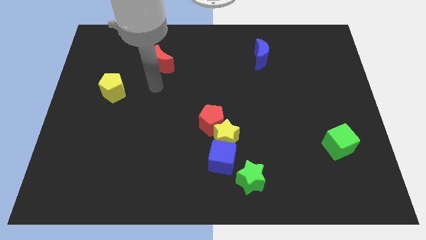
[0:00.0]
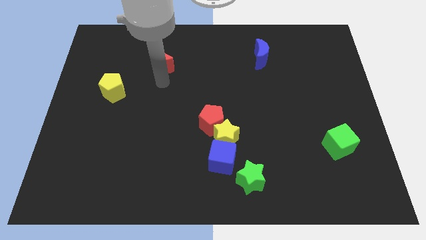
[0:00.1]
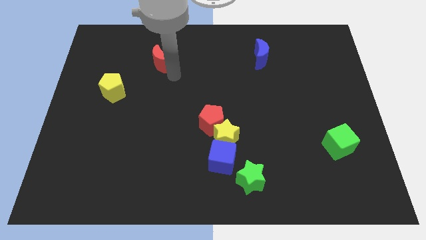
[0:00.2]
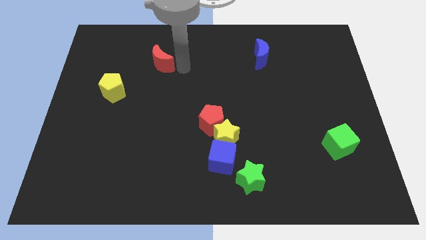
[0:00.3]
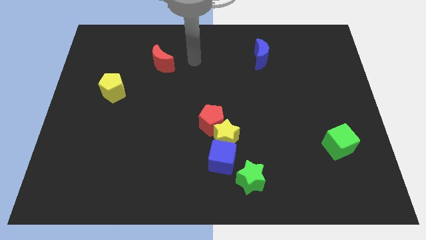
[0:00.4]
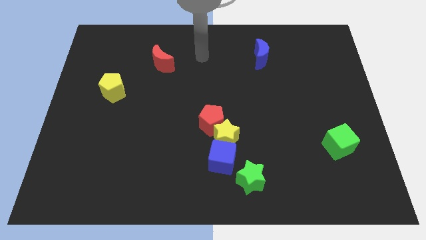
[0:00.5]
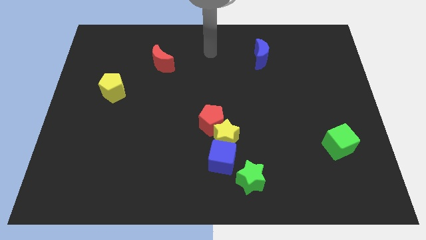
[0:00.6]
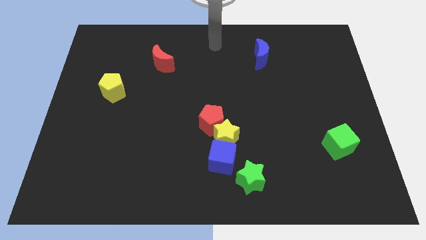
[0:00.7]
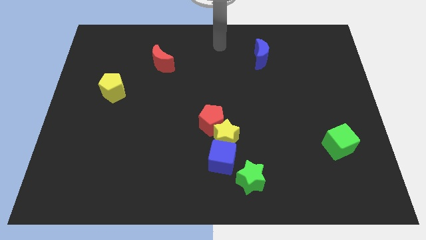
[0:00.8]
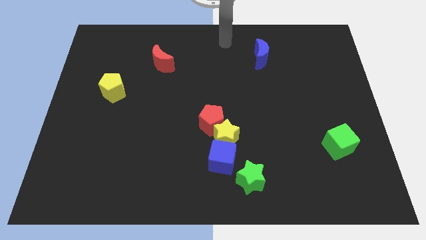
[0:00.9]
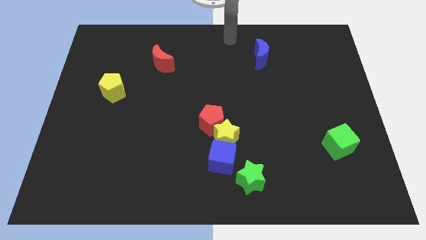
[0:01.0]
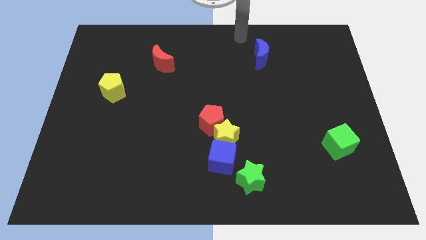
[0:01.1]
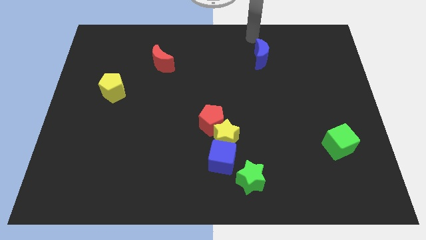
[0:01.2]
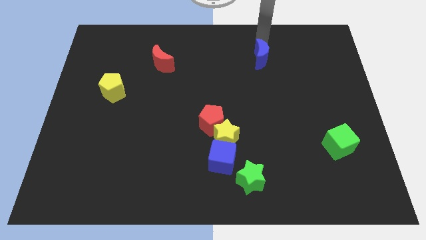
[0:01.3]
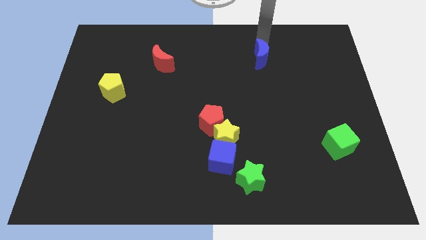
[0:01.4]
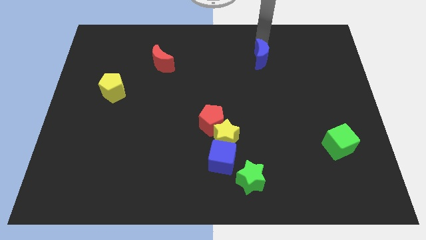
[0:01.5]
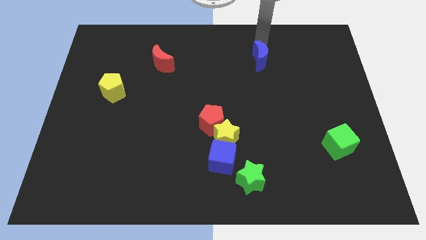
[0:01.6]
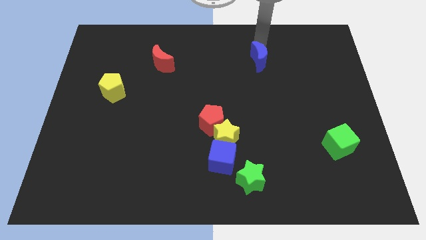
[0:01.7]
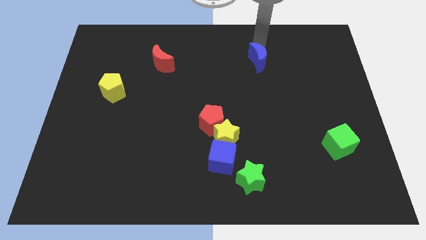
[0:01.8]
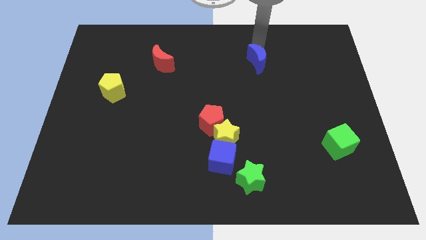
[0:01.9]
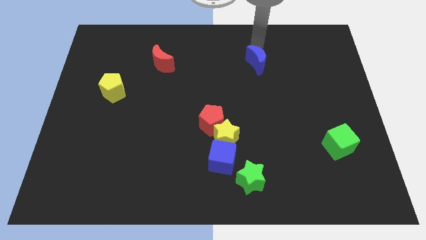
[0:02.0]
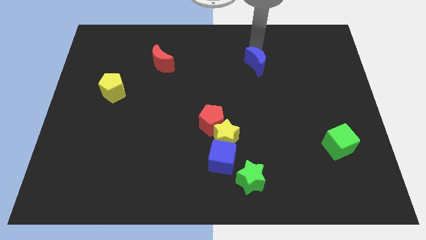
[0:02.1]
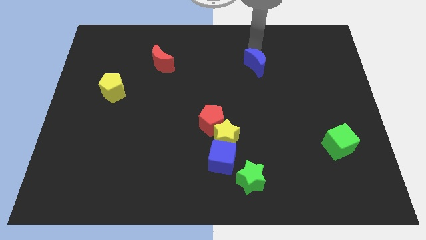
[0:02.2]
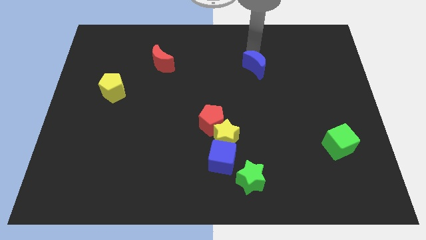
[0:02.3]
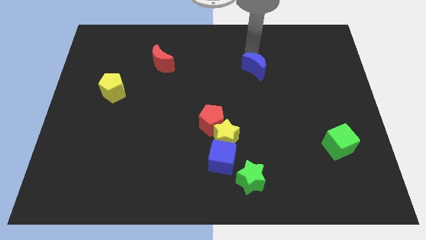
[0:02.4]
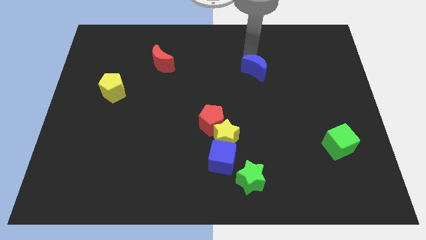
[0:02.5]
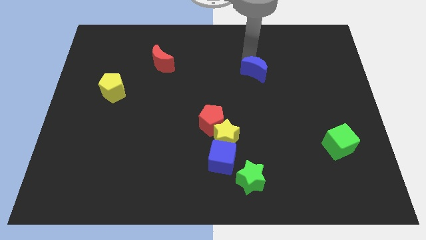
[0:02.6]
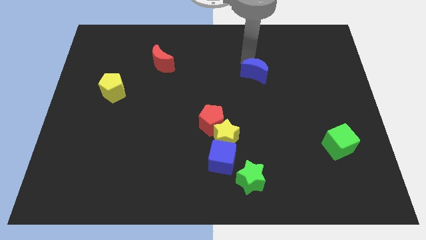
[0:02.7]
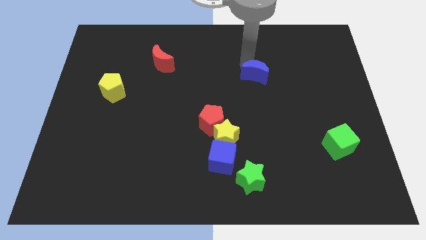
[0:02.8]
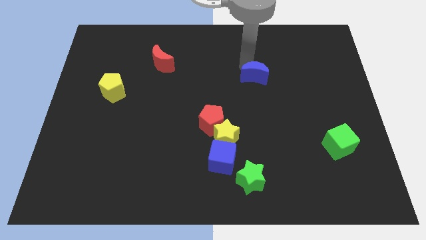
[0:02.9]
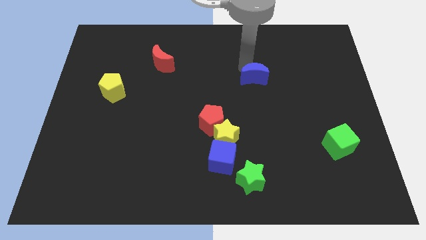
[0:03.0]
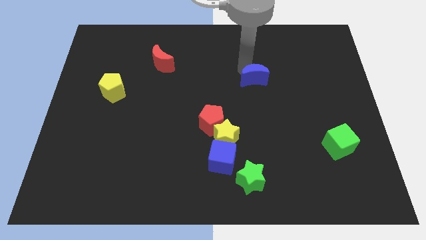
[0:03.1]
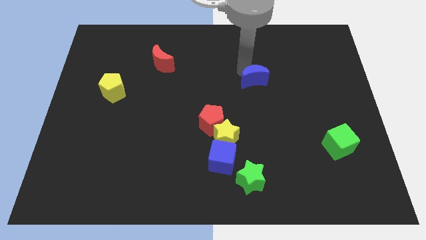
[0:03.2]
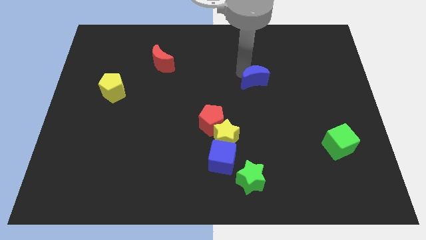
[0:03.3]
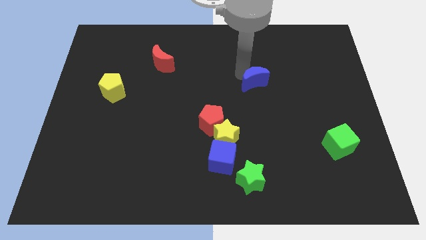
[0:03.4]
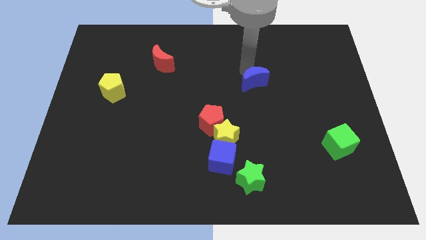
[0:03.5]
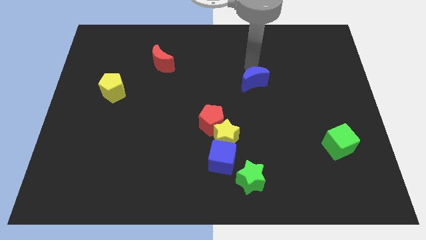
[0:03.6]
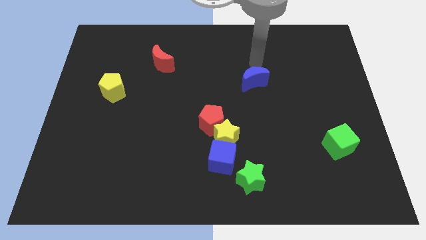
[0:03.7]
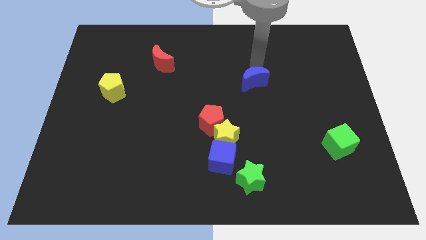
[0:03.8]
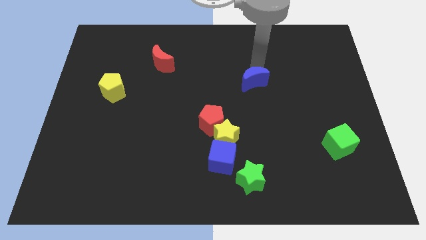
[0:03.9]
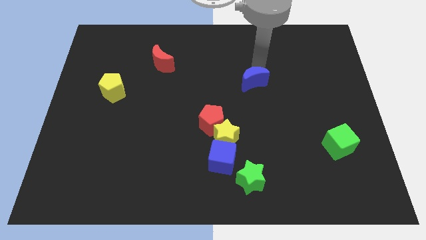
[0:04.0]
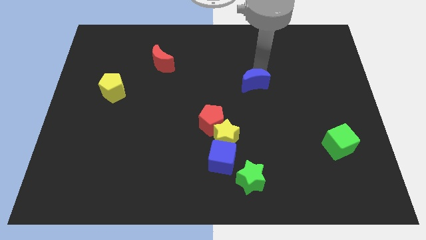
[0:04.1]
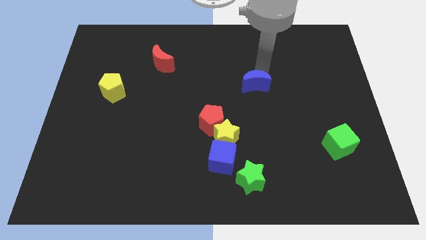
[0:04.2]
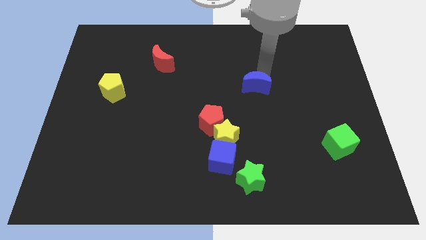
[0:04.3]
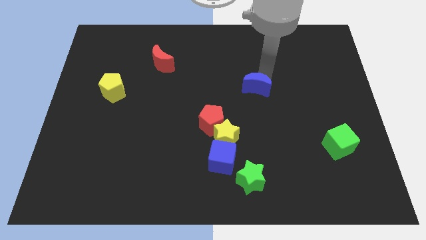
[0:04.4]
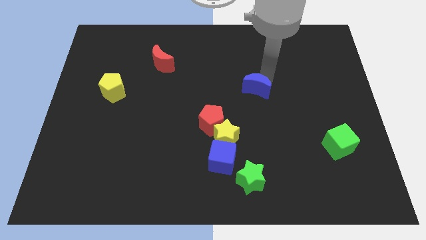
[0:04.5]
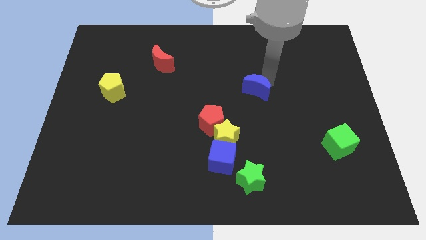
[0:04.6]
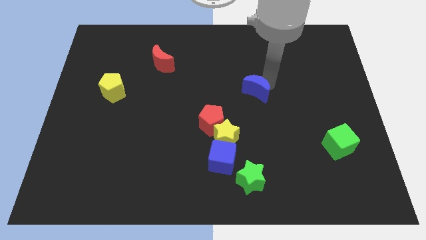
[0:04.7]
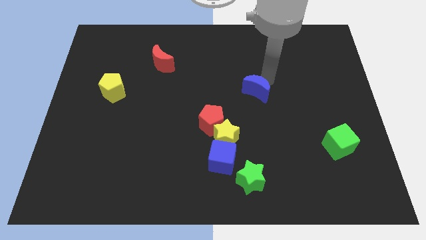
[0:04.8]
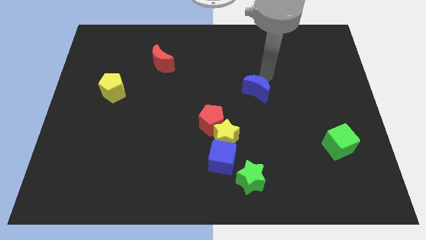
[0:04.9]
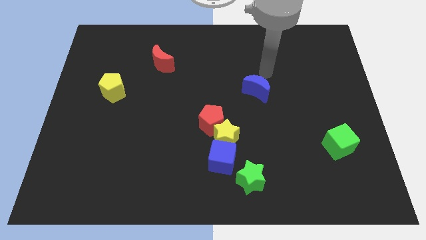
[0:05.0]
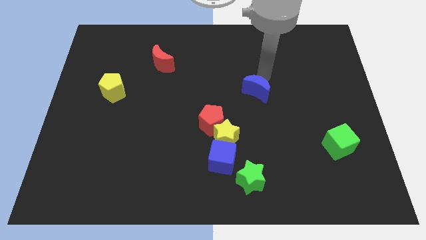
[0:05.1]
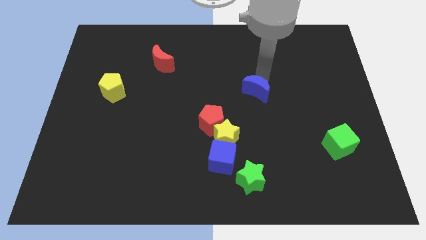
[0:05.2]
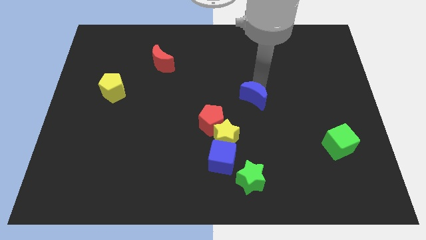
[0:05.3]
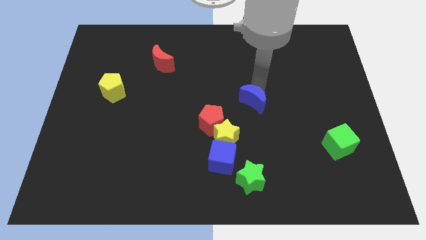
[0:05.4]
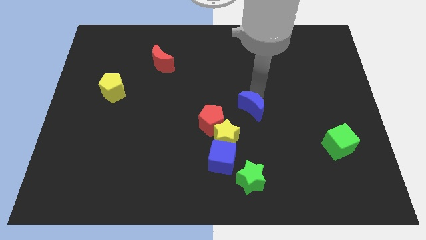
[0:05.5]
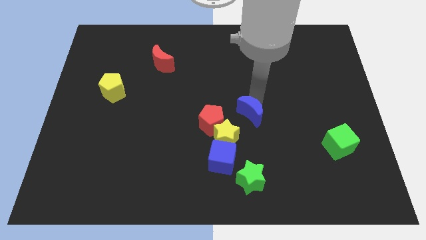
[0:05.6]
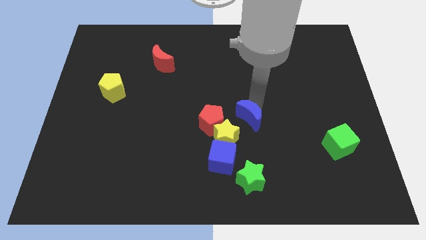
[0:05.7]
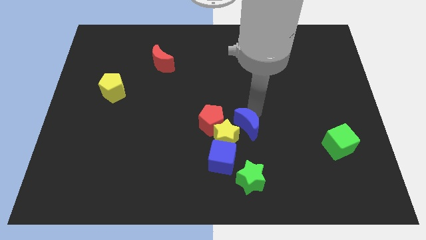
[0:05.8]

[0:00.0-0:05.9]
put the blue moon towards the yellow star

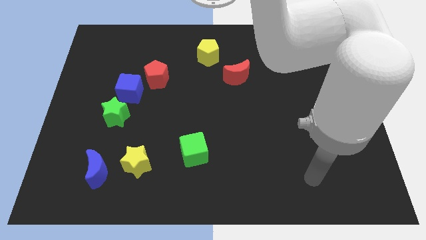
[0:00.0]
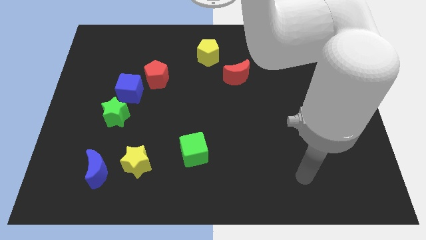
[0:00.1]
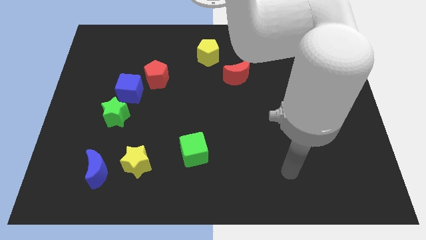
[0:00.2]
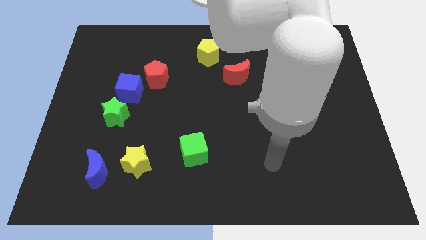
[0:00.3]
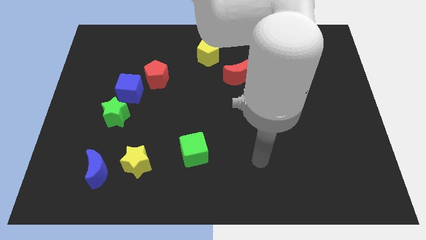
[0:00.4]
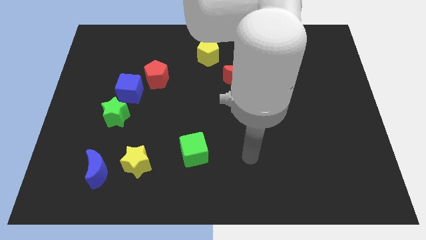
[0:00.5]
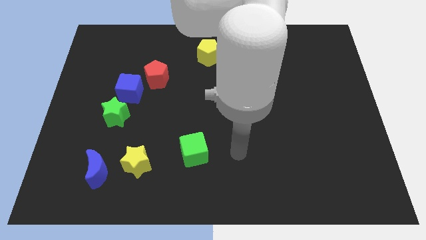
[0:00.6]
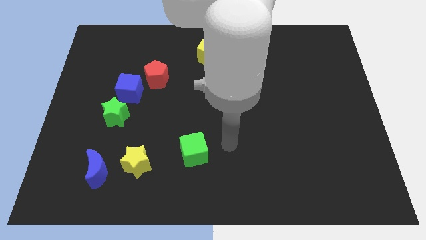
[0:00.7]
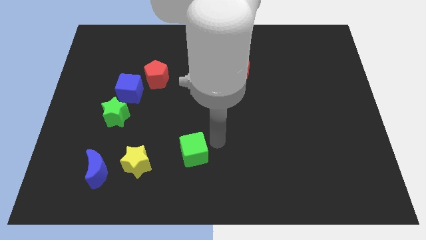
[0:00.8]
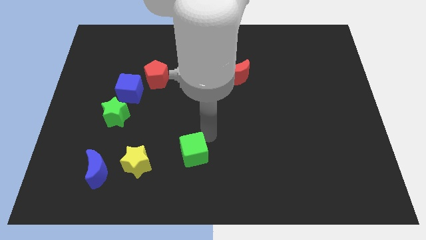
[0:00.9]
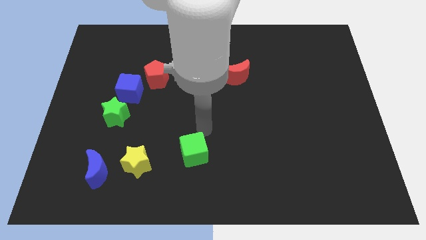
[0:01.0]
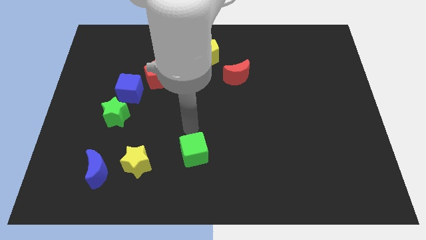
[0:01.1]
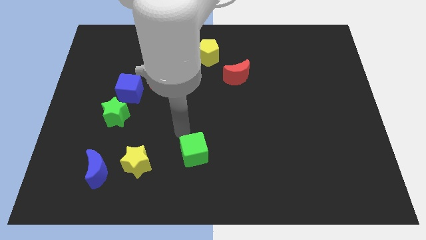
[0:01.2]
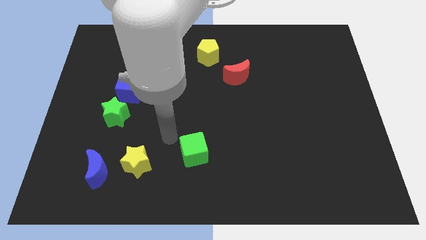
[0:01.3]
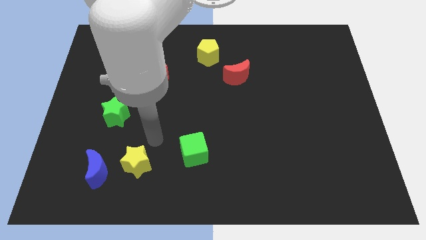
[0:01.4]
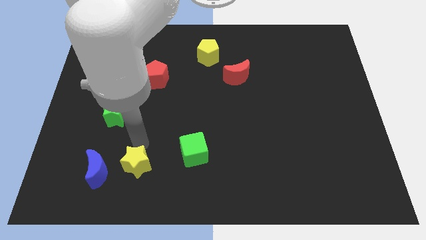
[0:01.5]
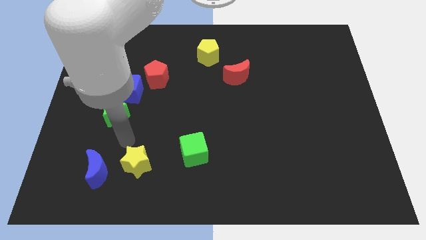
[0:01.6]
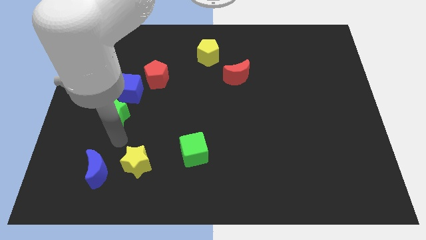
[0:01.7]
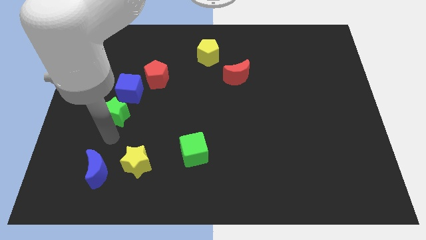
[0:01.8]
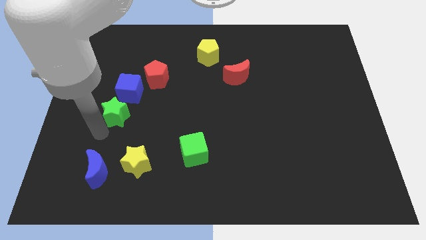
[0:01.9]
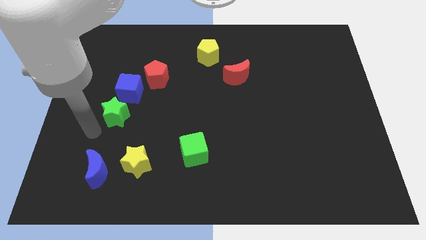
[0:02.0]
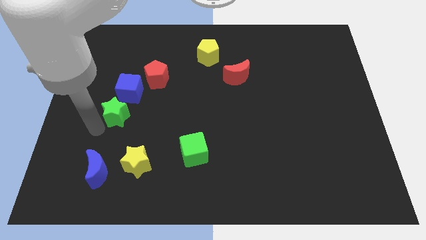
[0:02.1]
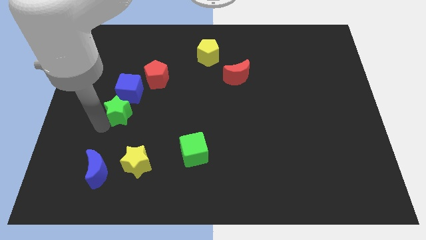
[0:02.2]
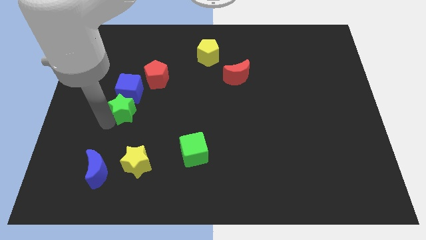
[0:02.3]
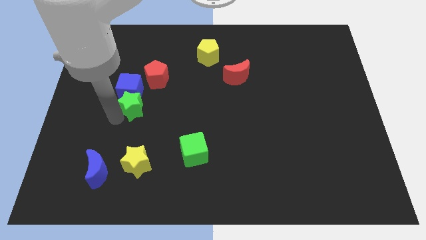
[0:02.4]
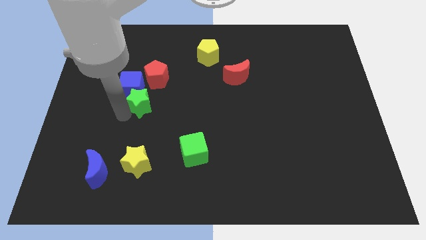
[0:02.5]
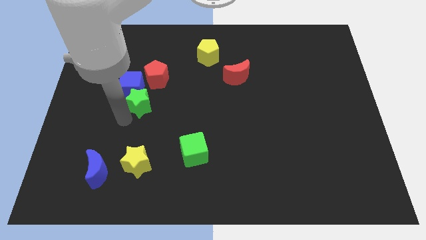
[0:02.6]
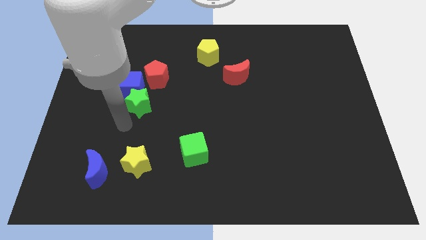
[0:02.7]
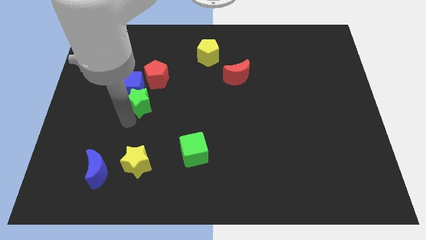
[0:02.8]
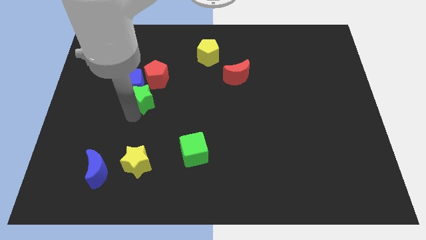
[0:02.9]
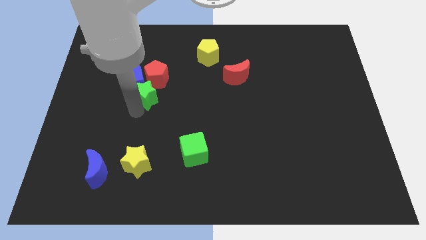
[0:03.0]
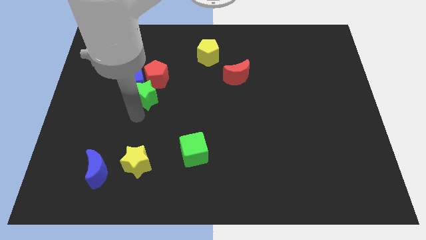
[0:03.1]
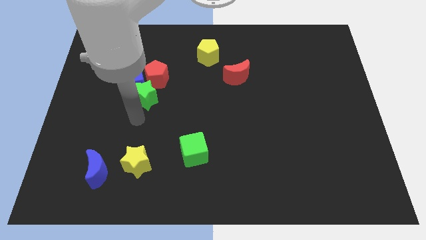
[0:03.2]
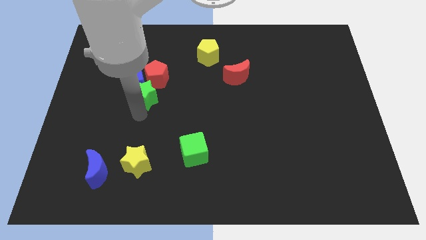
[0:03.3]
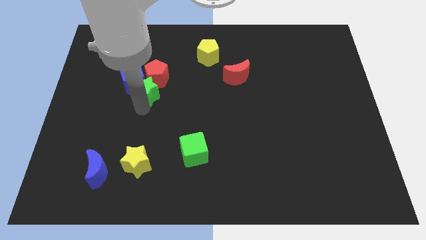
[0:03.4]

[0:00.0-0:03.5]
move the green star to the red pentagon
